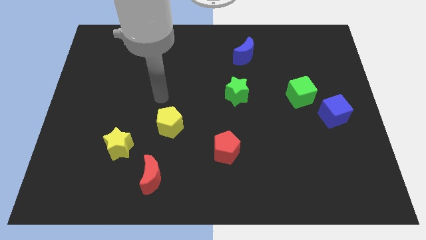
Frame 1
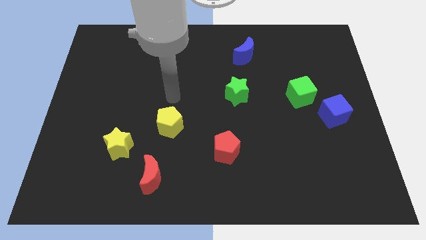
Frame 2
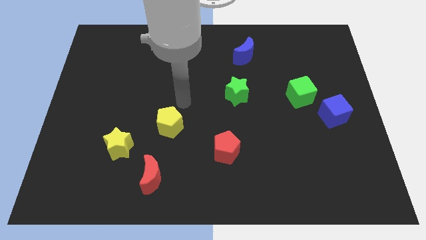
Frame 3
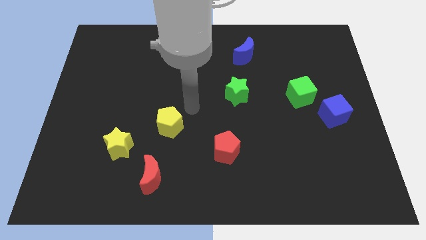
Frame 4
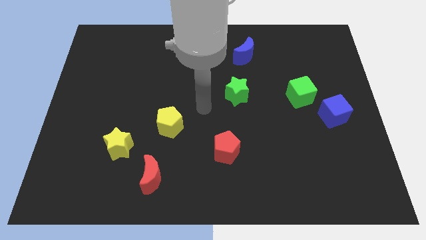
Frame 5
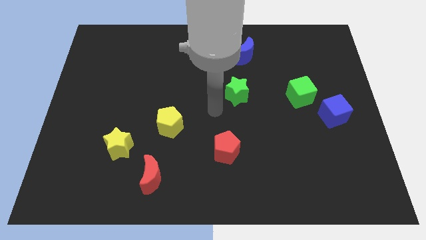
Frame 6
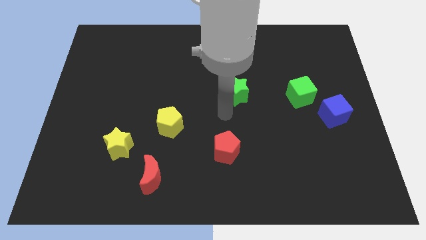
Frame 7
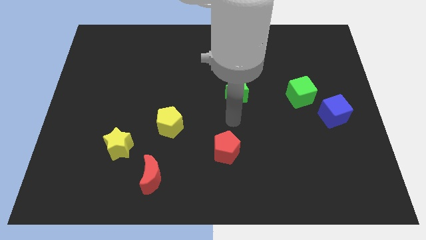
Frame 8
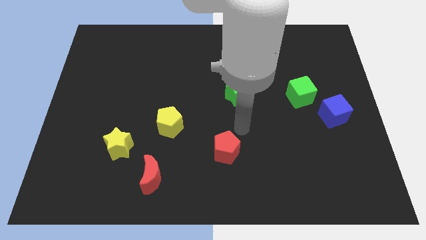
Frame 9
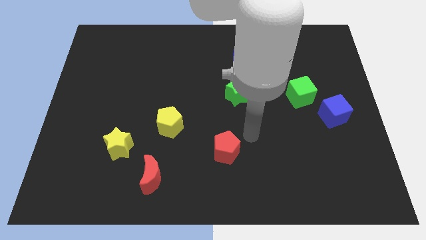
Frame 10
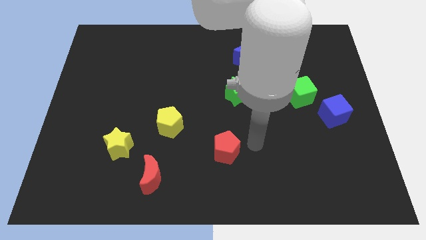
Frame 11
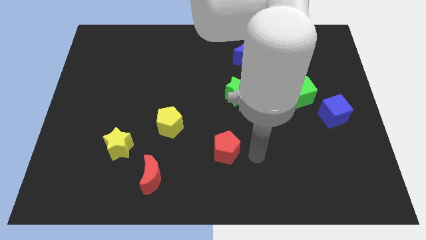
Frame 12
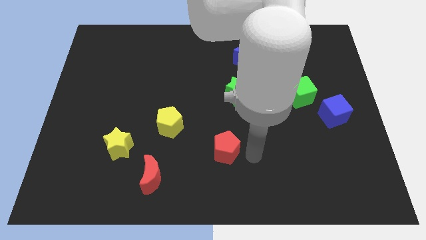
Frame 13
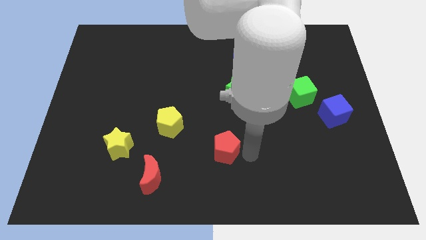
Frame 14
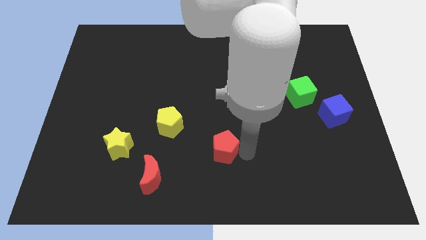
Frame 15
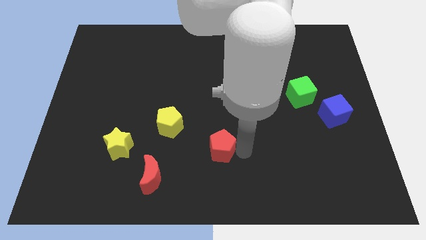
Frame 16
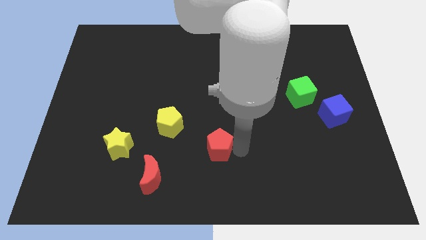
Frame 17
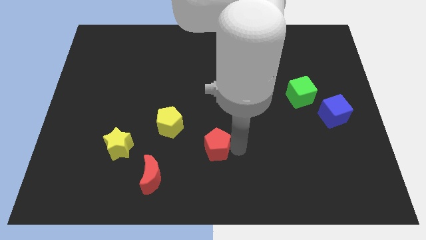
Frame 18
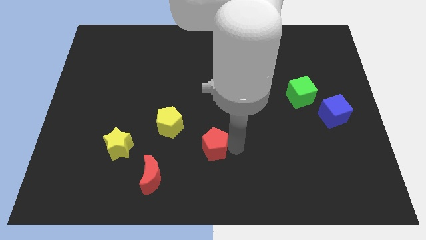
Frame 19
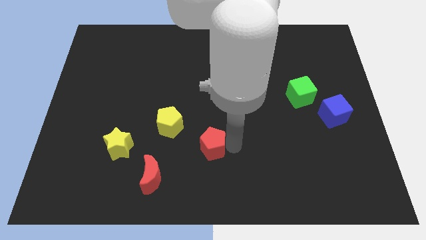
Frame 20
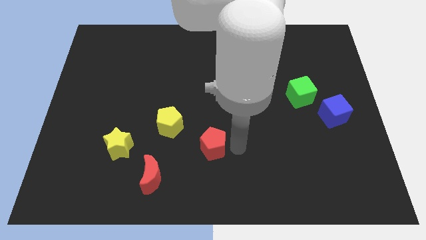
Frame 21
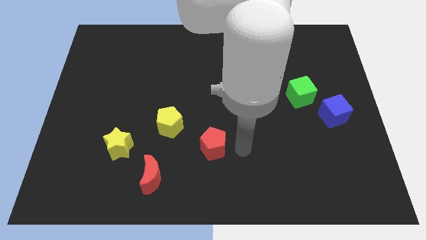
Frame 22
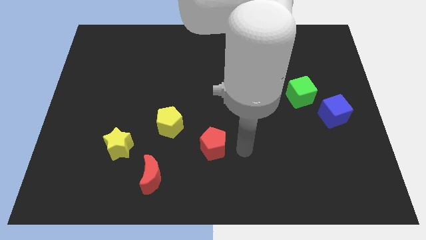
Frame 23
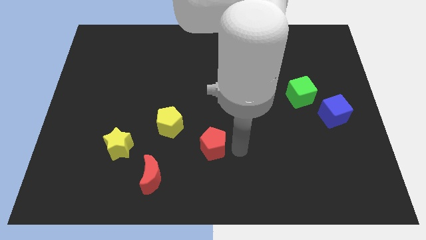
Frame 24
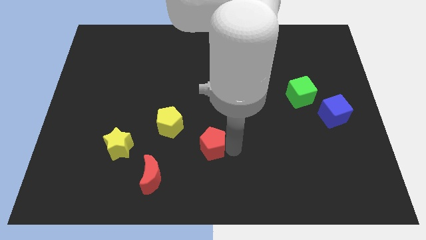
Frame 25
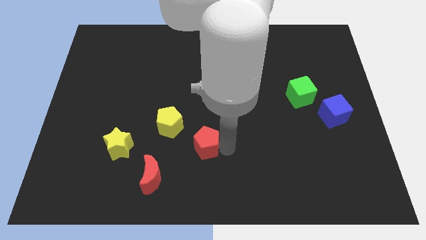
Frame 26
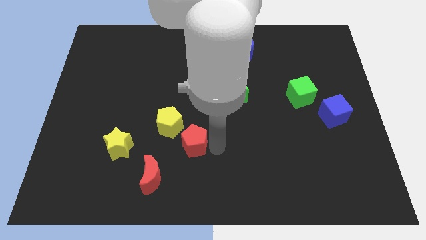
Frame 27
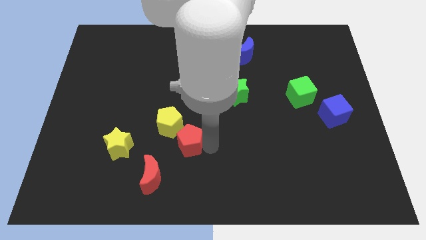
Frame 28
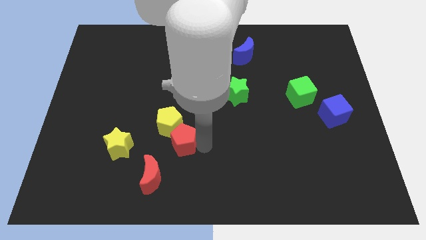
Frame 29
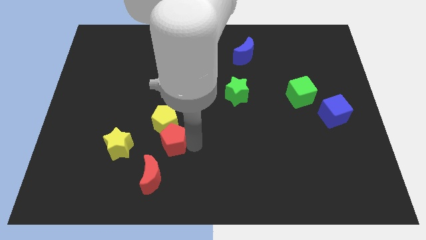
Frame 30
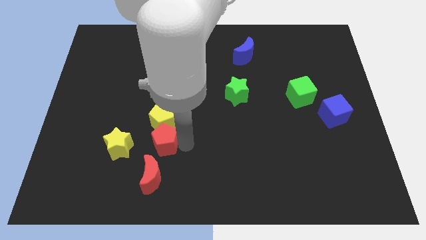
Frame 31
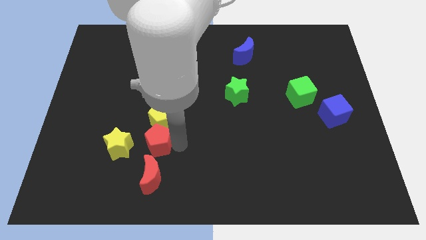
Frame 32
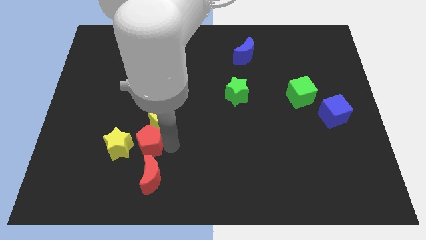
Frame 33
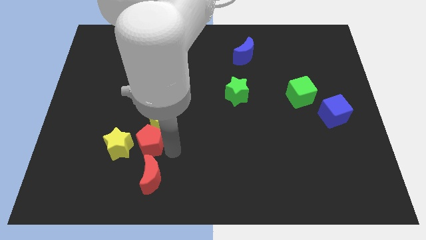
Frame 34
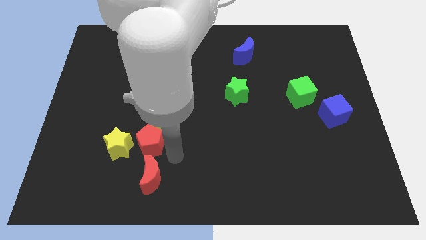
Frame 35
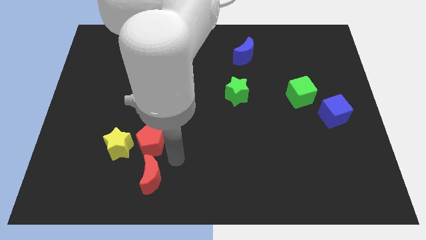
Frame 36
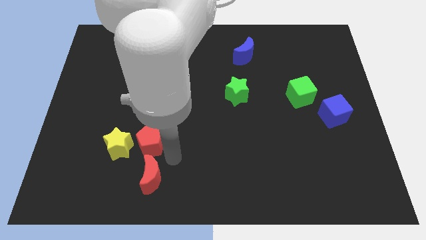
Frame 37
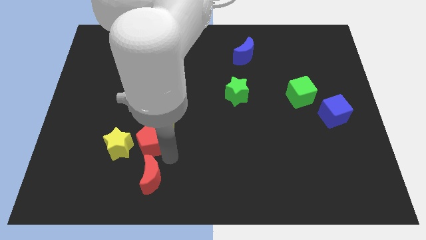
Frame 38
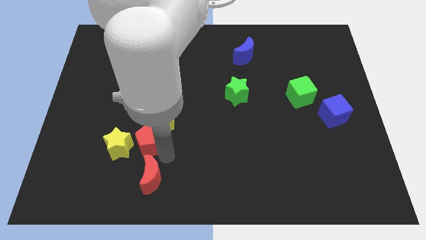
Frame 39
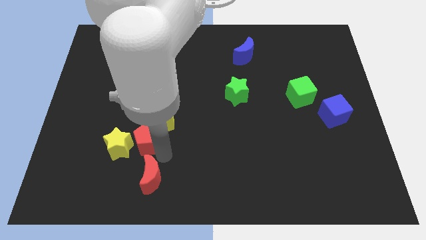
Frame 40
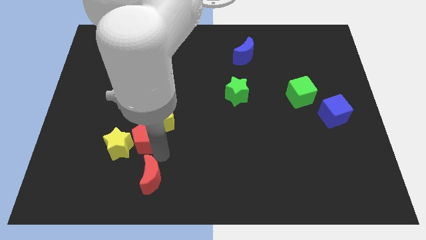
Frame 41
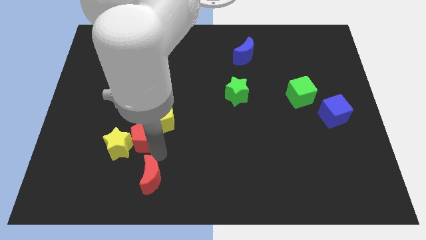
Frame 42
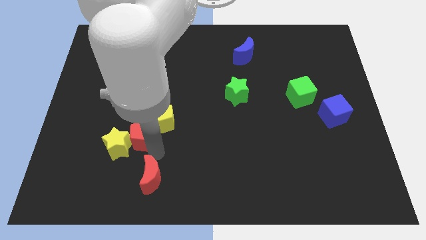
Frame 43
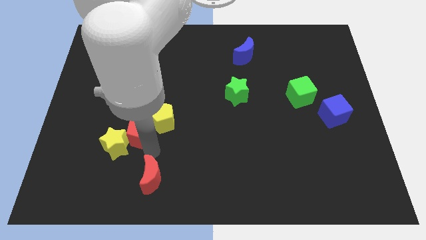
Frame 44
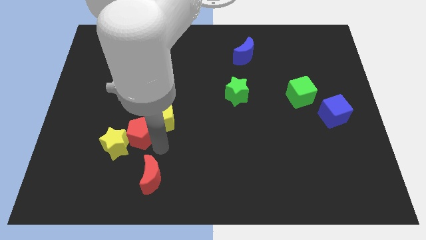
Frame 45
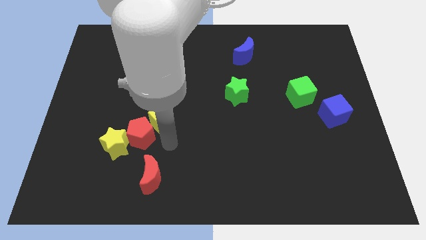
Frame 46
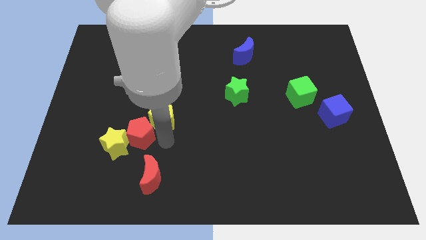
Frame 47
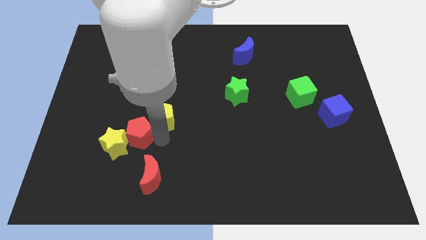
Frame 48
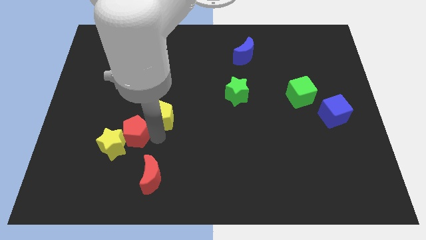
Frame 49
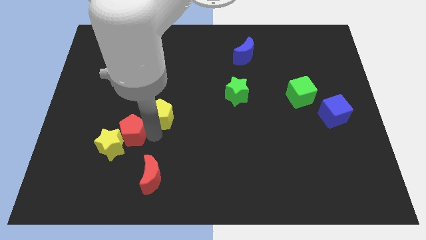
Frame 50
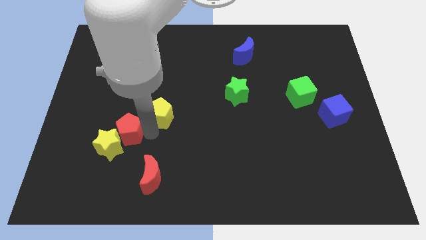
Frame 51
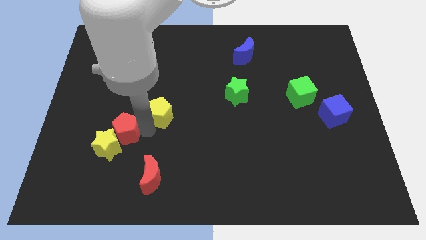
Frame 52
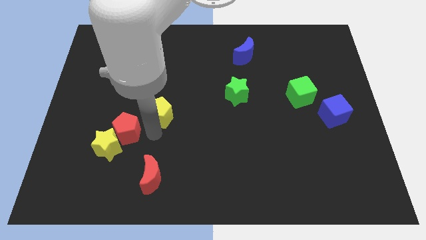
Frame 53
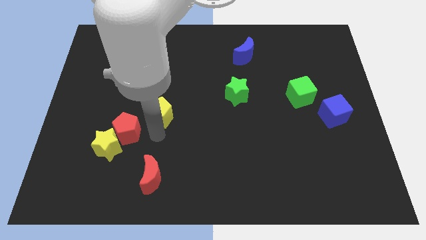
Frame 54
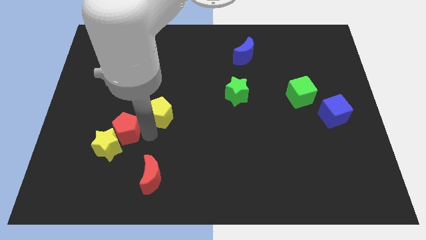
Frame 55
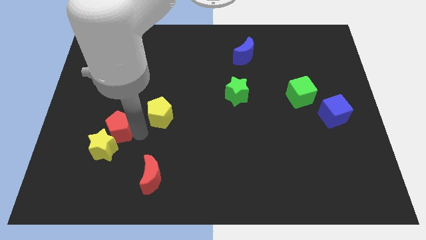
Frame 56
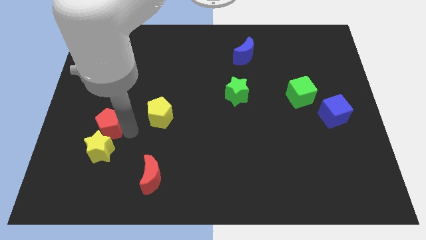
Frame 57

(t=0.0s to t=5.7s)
slide the red pentagon to the top left of the yellow star

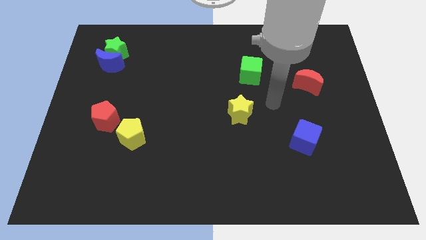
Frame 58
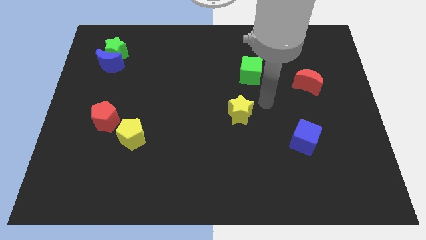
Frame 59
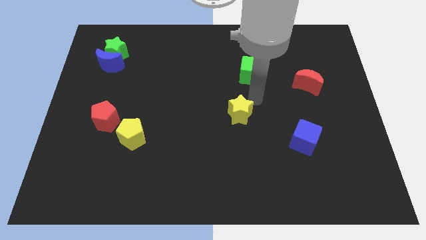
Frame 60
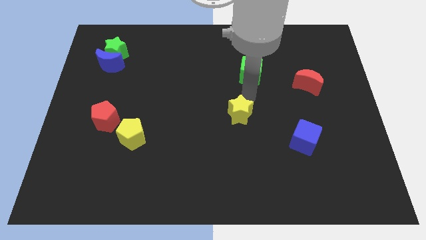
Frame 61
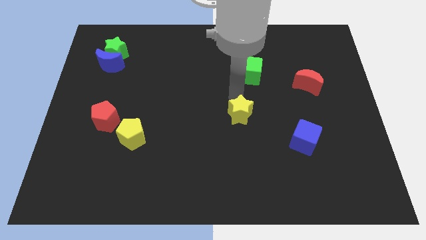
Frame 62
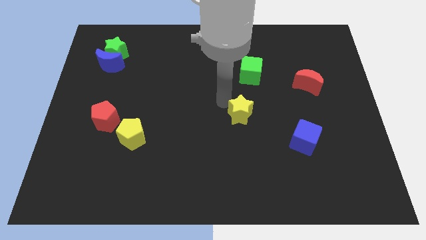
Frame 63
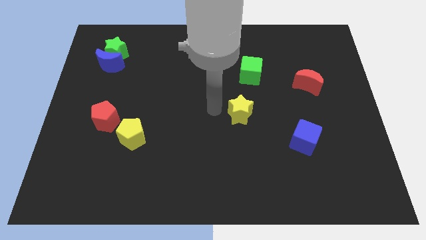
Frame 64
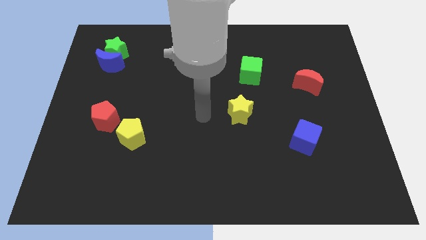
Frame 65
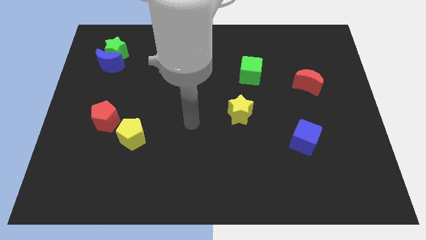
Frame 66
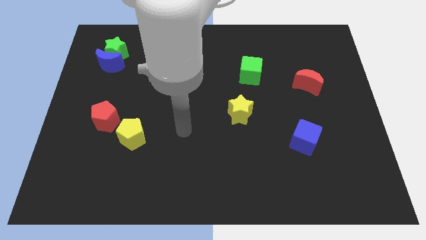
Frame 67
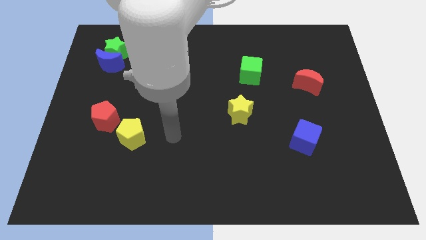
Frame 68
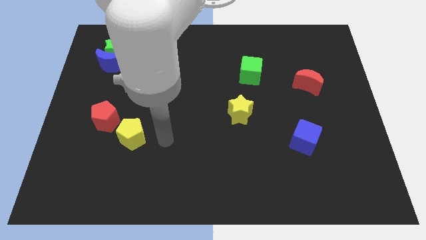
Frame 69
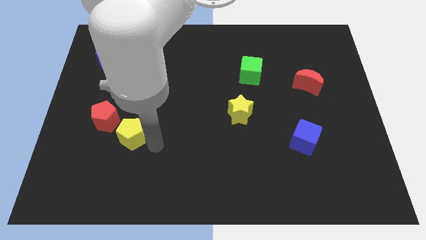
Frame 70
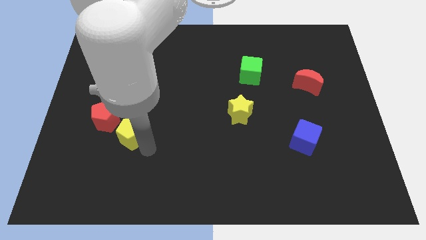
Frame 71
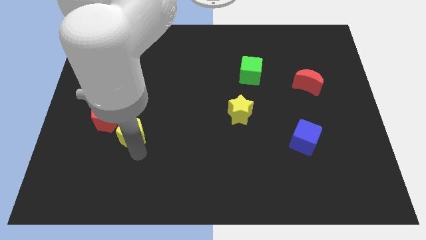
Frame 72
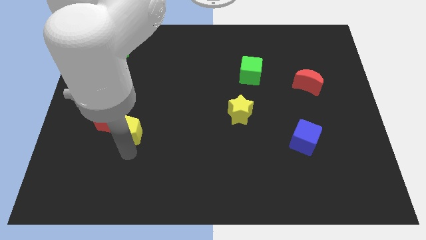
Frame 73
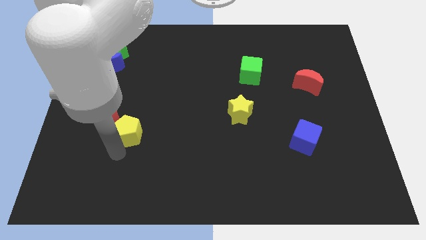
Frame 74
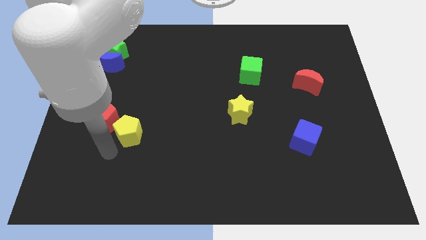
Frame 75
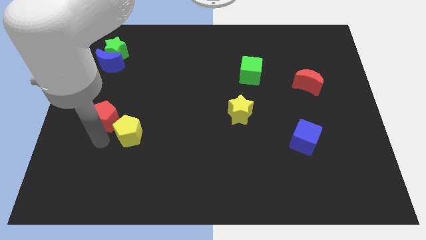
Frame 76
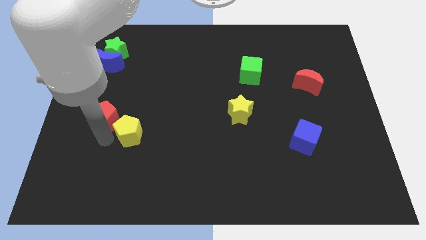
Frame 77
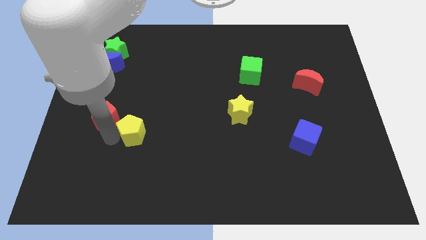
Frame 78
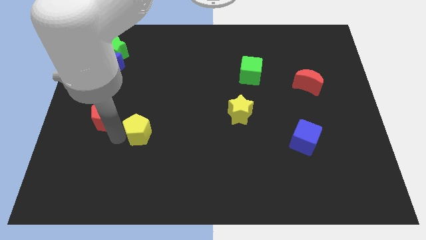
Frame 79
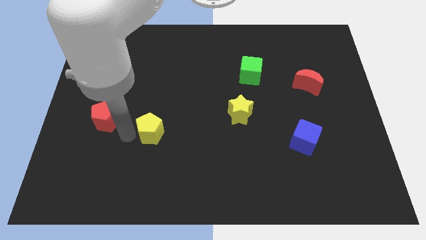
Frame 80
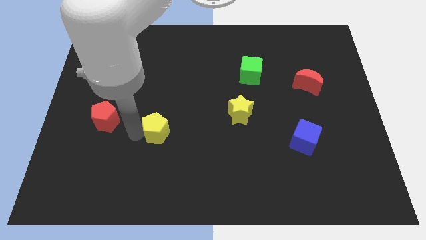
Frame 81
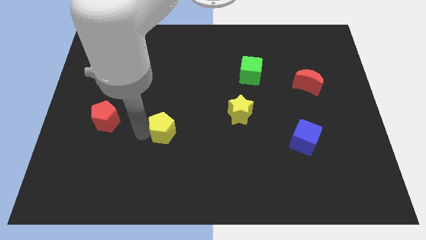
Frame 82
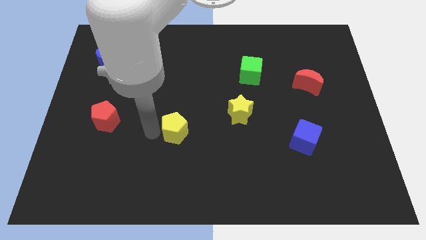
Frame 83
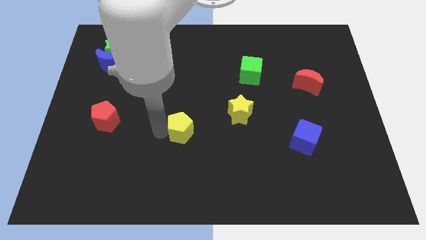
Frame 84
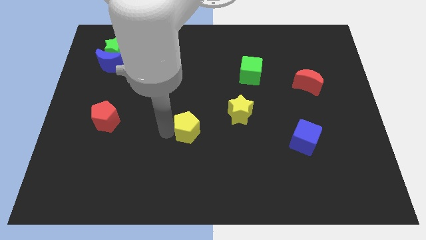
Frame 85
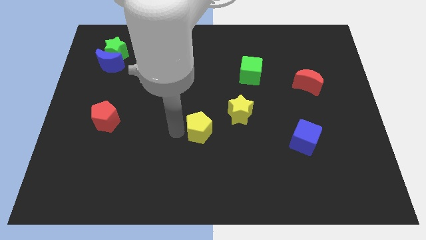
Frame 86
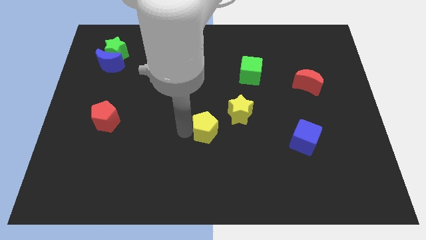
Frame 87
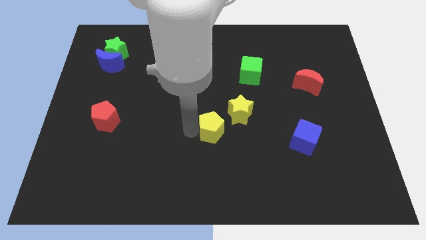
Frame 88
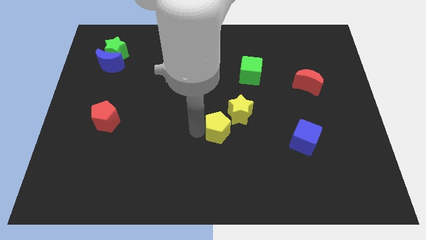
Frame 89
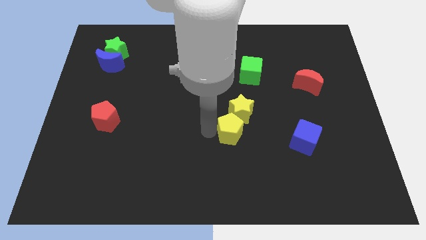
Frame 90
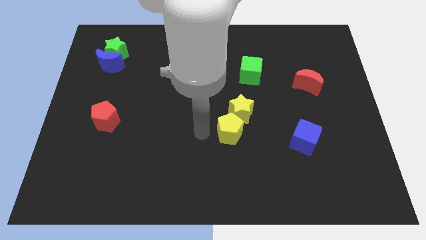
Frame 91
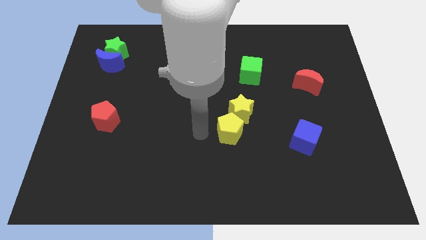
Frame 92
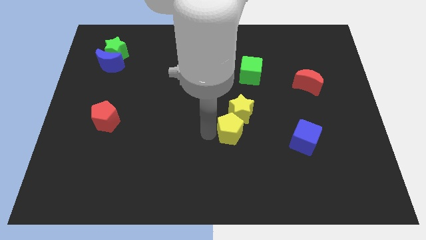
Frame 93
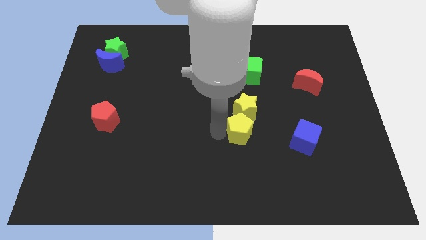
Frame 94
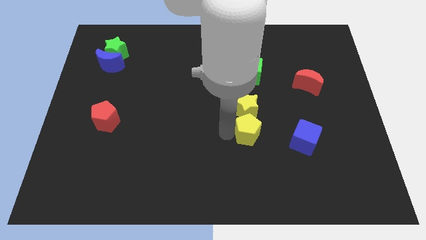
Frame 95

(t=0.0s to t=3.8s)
put the yellow pentagon diagonally down and to the right of the yellow star
